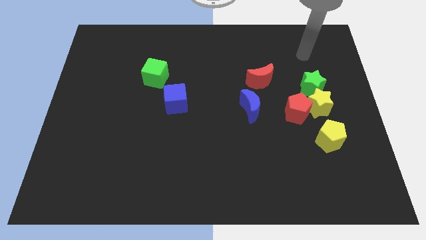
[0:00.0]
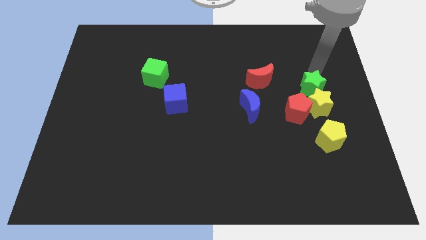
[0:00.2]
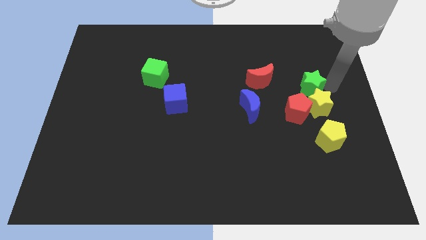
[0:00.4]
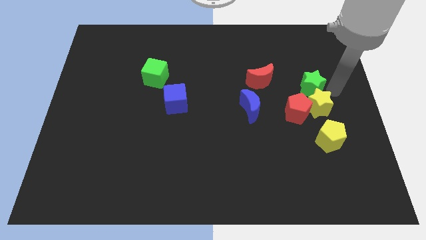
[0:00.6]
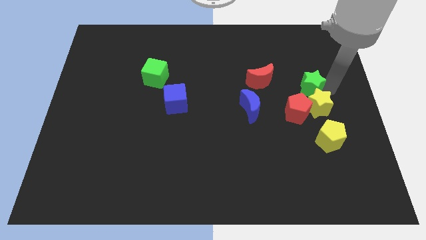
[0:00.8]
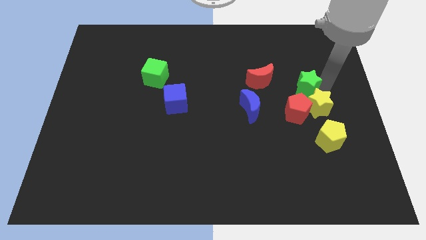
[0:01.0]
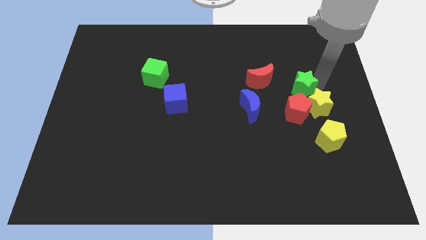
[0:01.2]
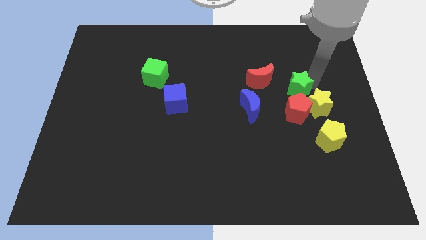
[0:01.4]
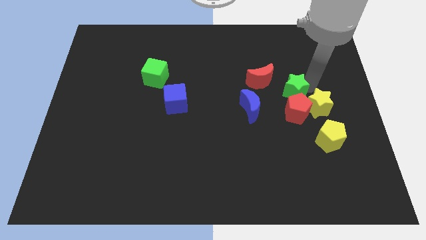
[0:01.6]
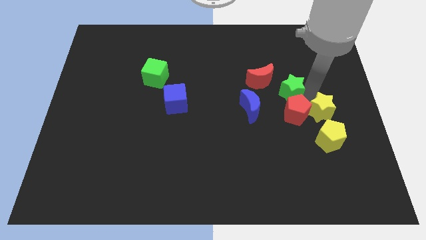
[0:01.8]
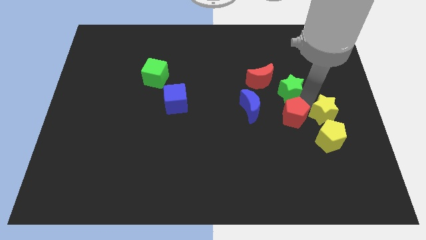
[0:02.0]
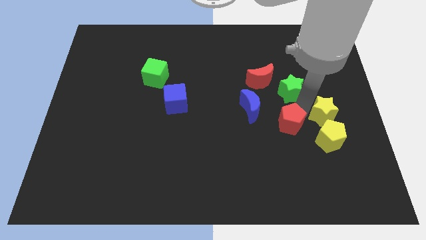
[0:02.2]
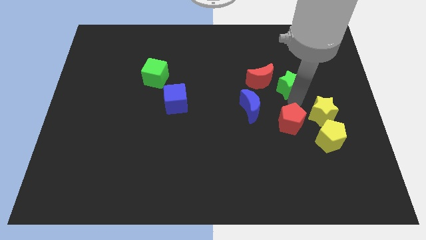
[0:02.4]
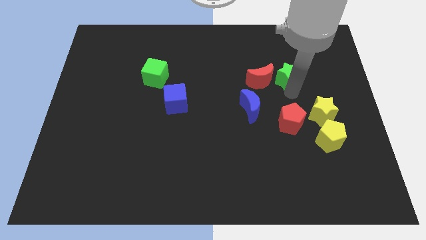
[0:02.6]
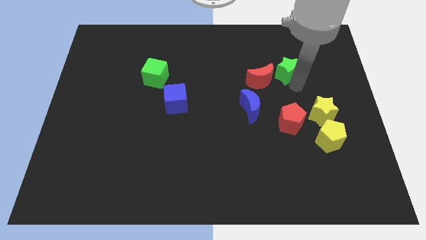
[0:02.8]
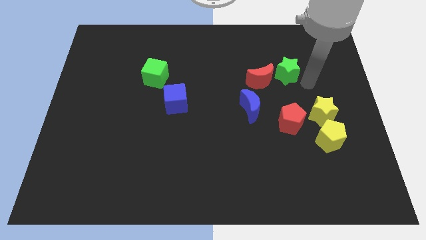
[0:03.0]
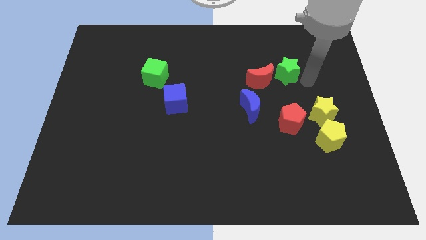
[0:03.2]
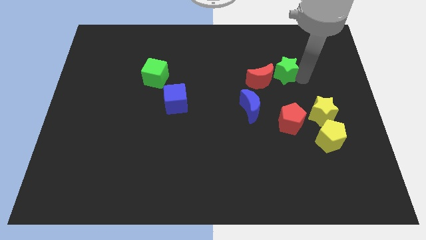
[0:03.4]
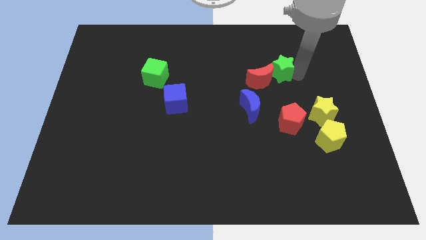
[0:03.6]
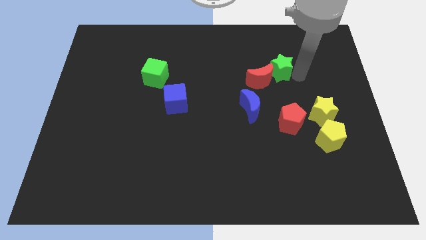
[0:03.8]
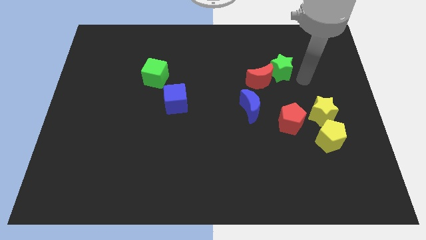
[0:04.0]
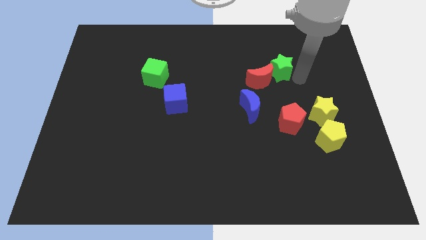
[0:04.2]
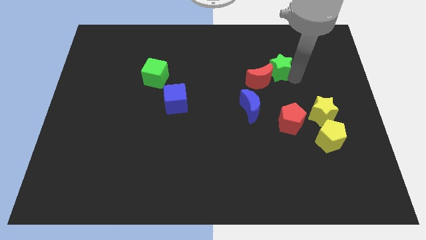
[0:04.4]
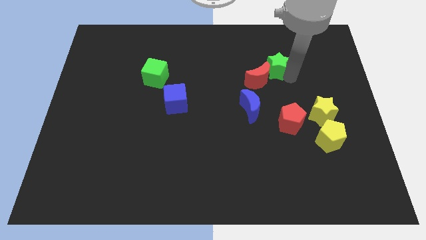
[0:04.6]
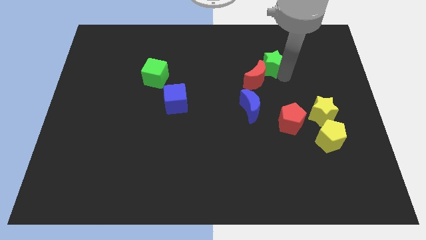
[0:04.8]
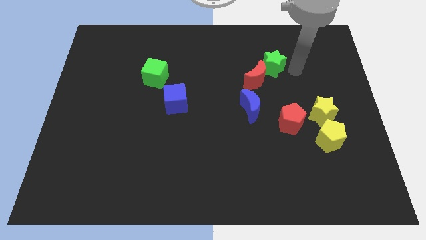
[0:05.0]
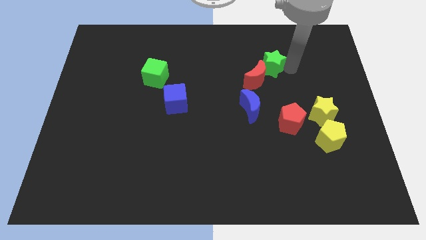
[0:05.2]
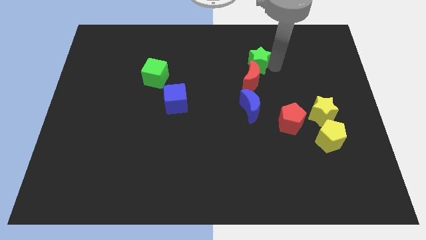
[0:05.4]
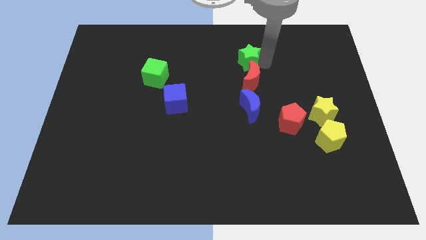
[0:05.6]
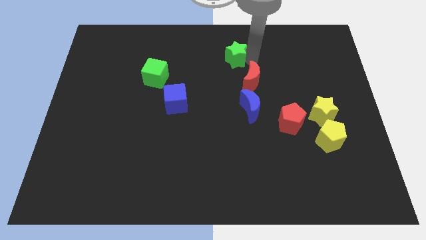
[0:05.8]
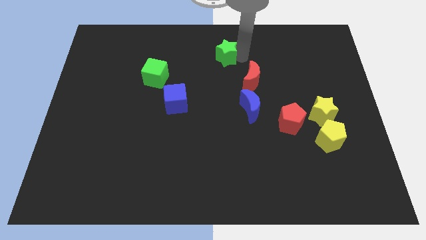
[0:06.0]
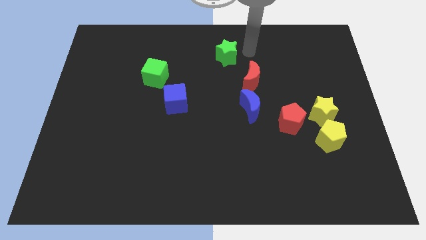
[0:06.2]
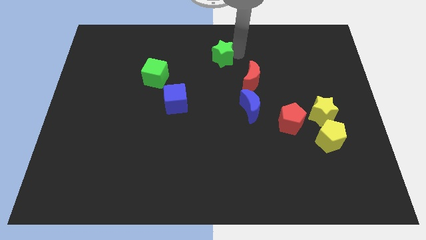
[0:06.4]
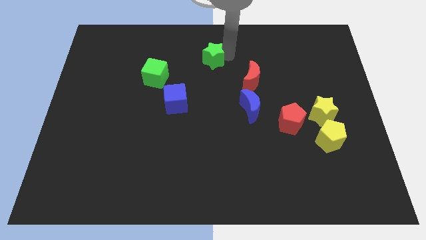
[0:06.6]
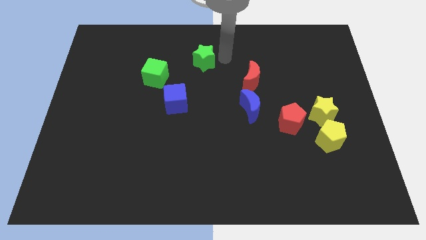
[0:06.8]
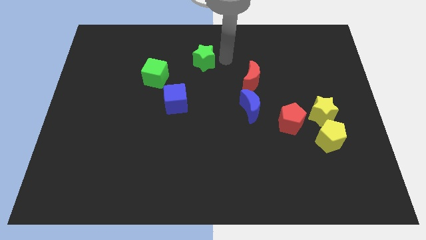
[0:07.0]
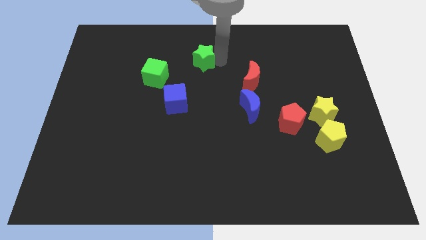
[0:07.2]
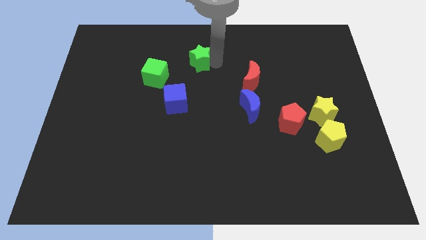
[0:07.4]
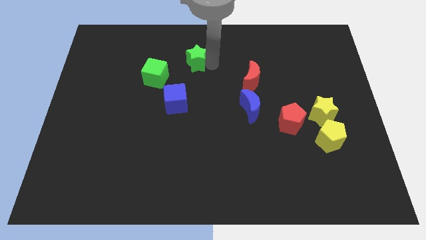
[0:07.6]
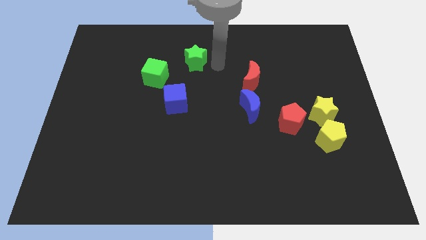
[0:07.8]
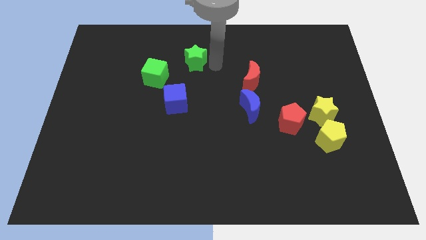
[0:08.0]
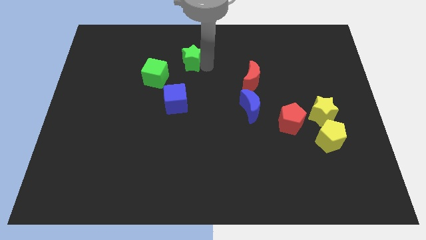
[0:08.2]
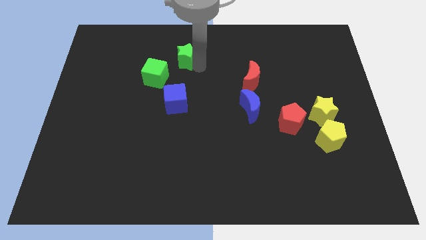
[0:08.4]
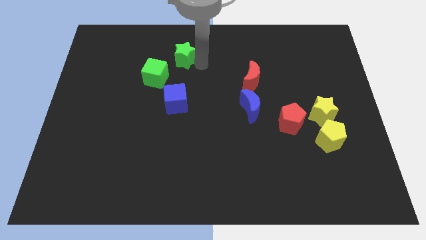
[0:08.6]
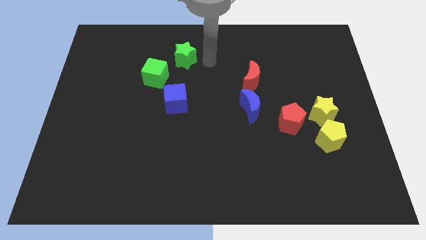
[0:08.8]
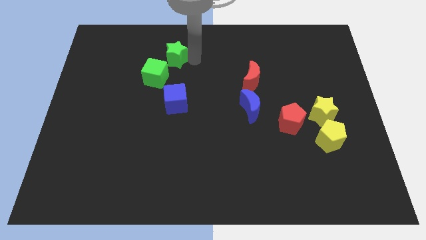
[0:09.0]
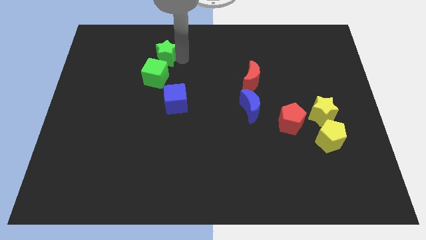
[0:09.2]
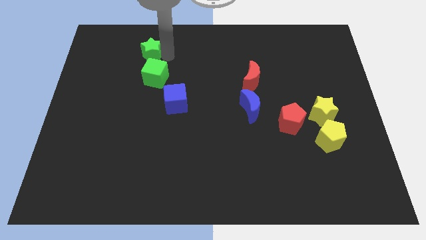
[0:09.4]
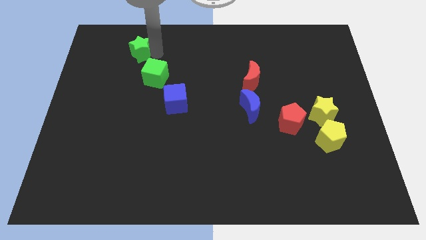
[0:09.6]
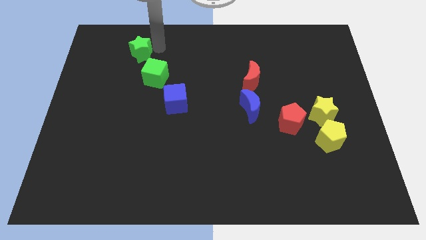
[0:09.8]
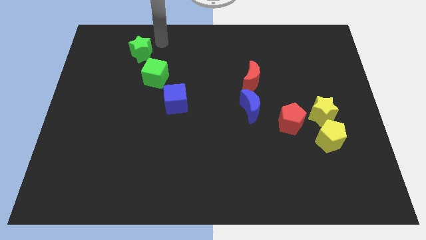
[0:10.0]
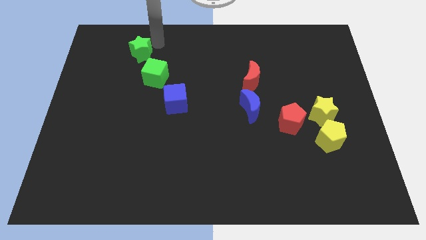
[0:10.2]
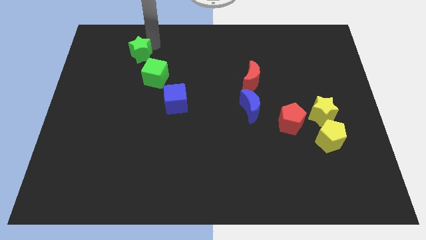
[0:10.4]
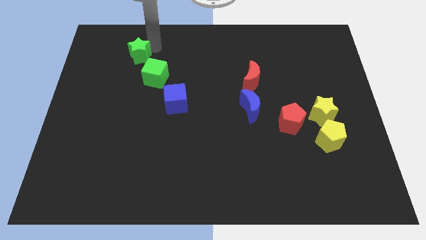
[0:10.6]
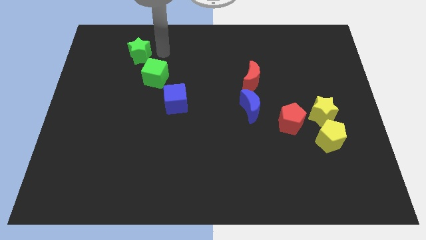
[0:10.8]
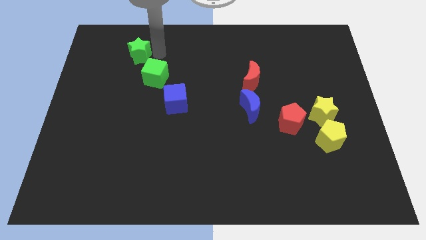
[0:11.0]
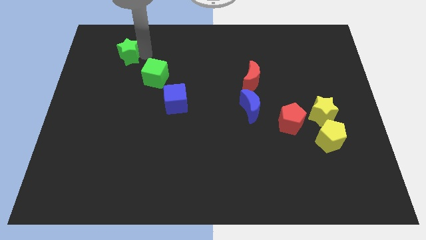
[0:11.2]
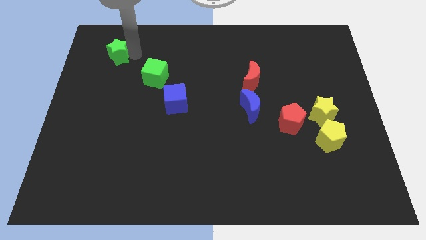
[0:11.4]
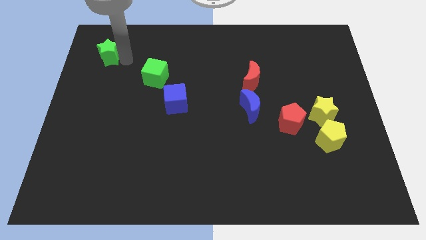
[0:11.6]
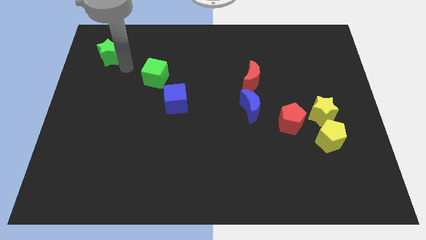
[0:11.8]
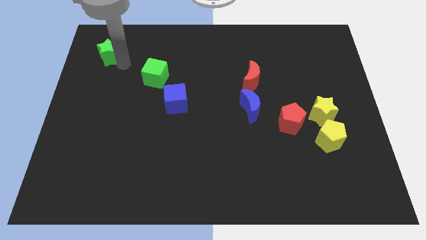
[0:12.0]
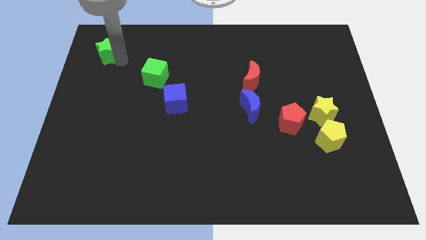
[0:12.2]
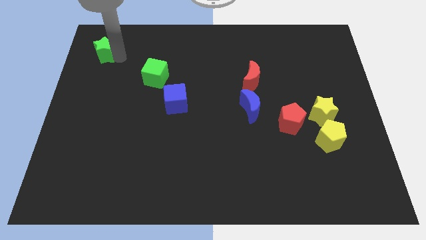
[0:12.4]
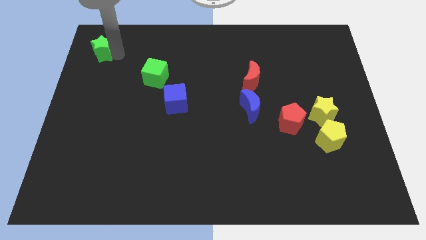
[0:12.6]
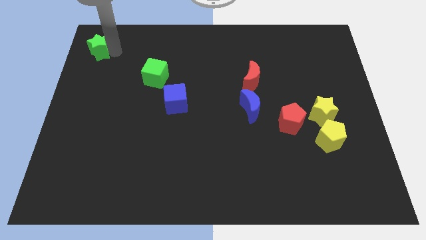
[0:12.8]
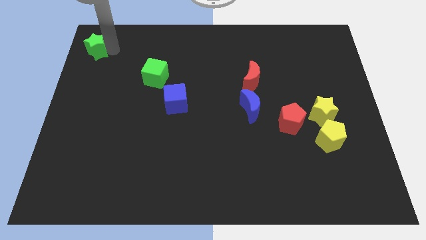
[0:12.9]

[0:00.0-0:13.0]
slide the green star to the top left of the board
